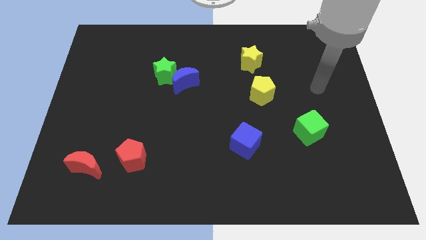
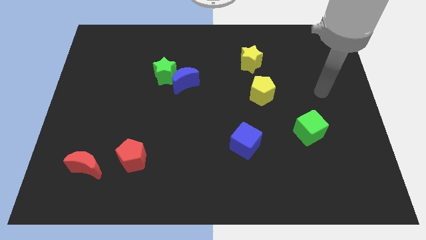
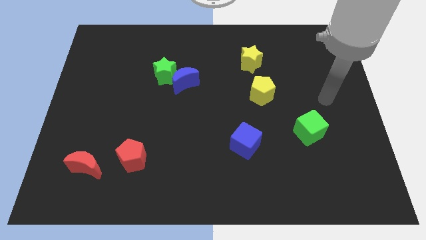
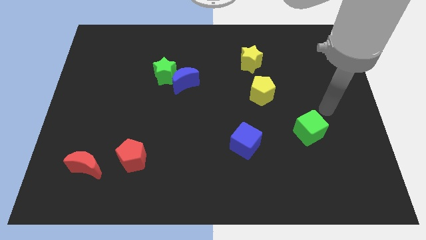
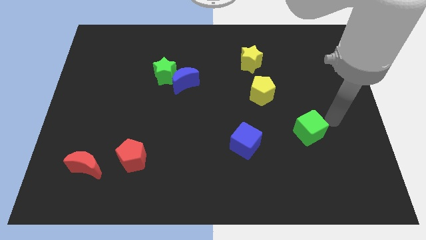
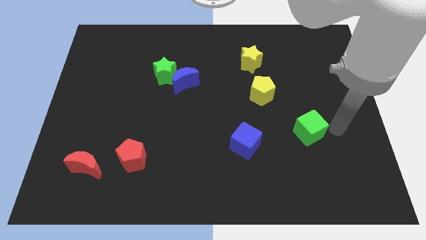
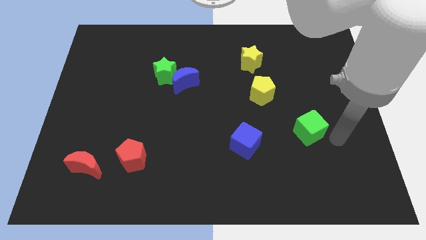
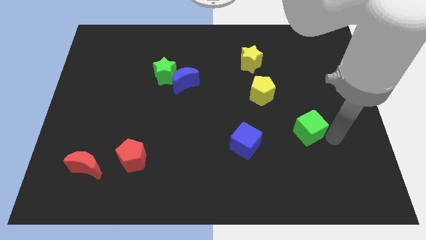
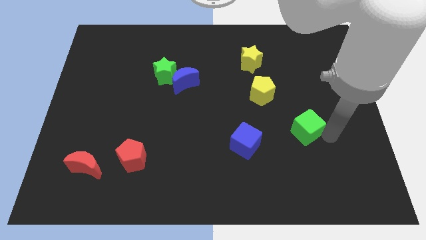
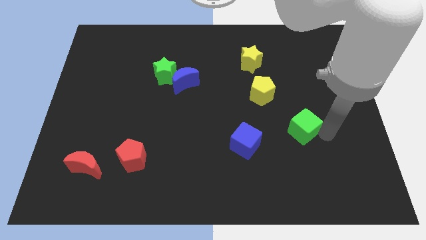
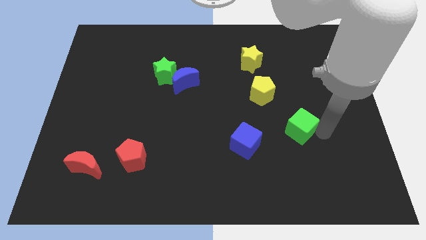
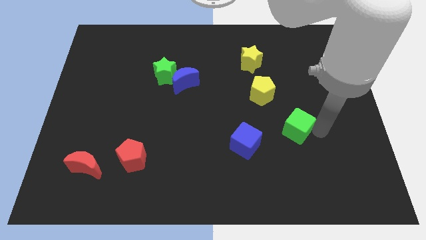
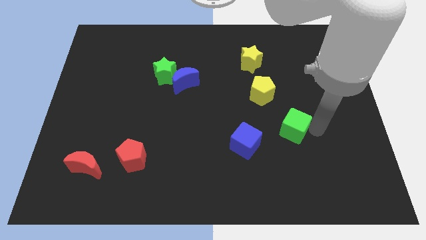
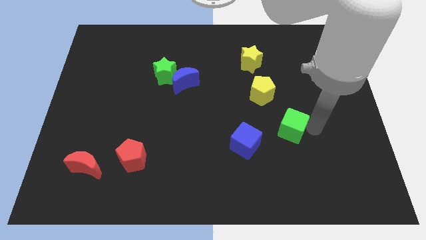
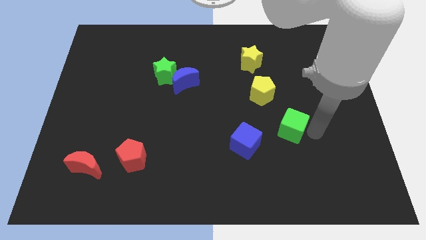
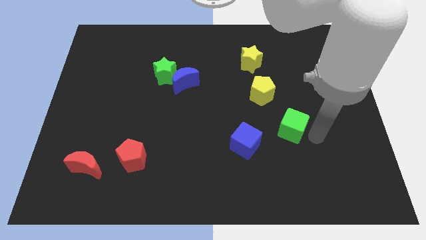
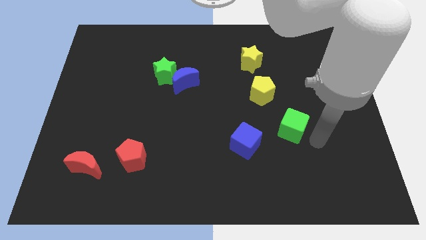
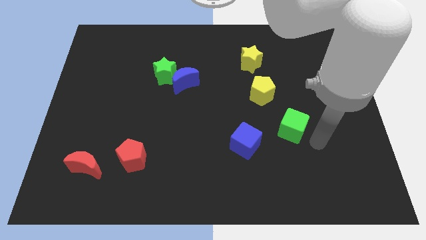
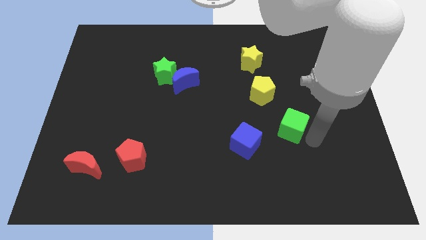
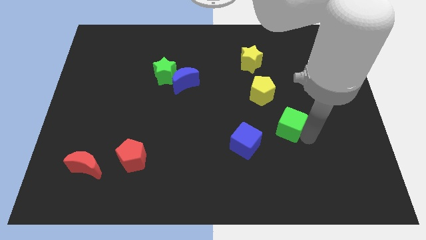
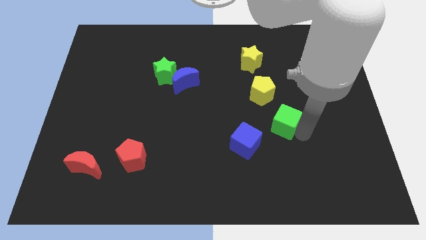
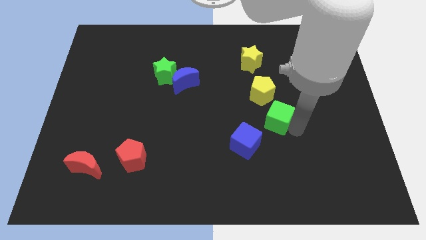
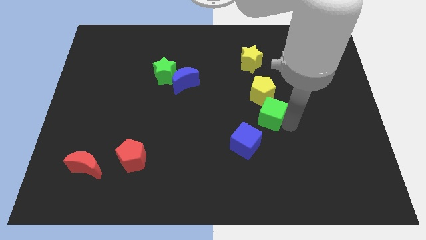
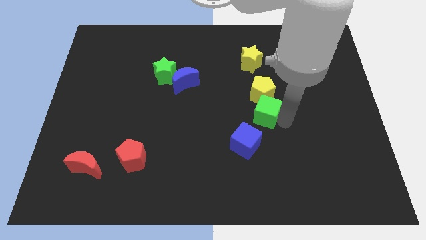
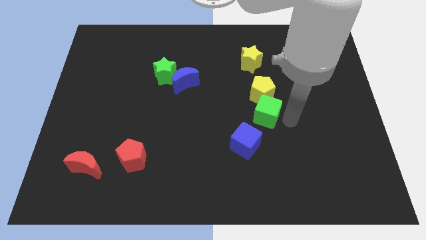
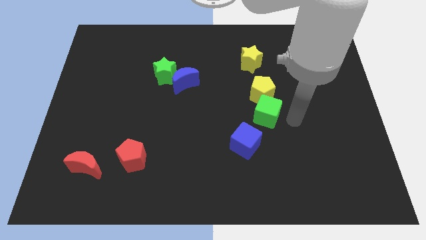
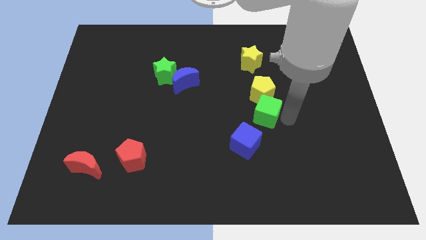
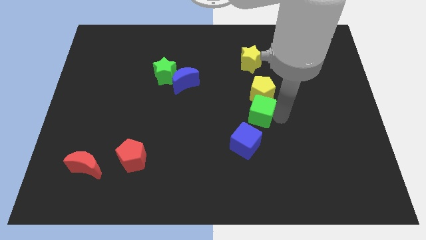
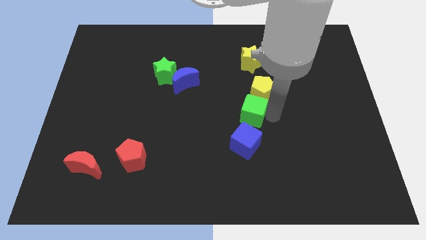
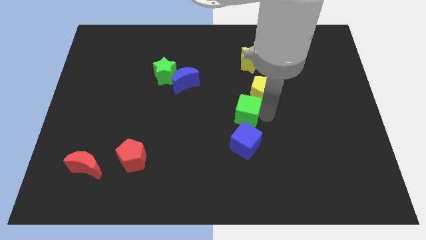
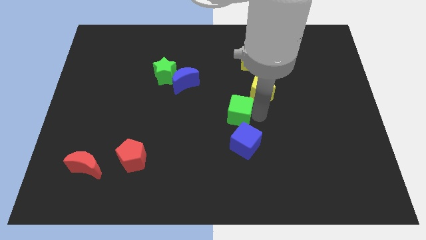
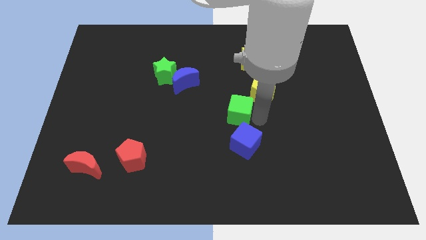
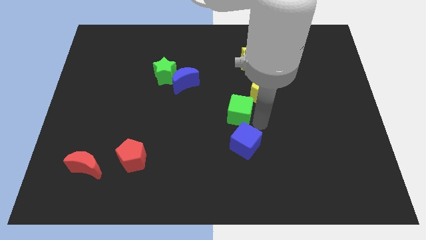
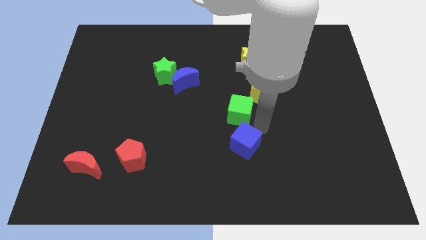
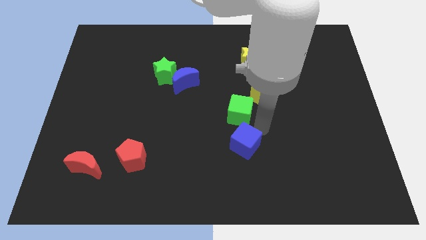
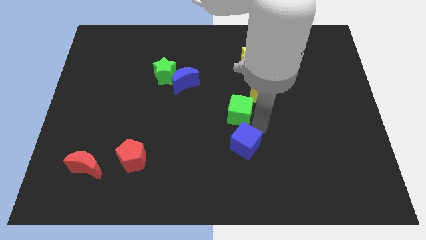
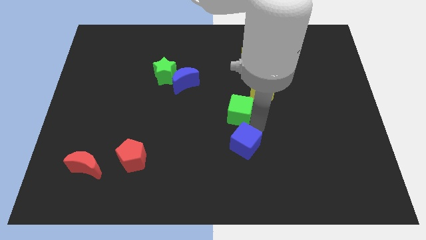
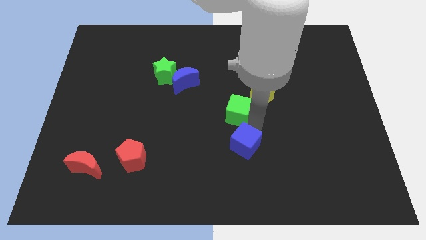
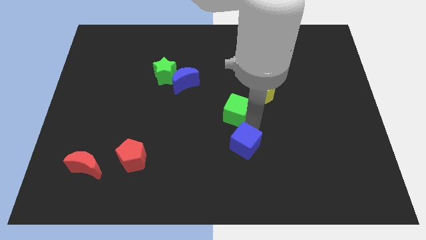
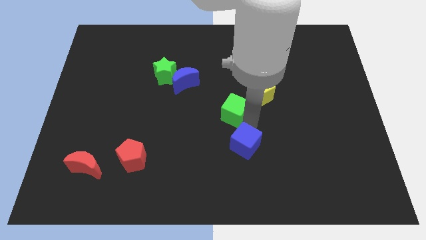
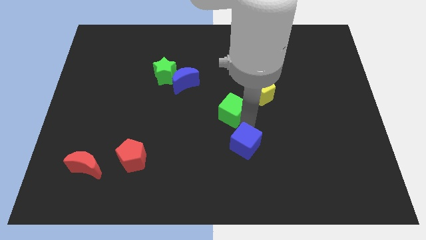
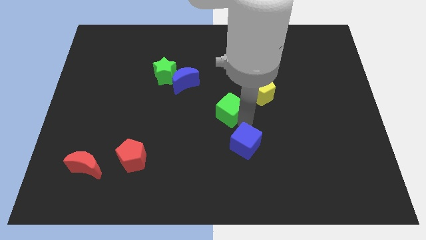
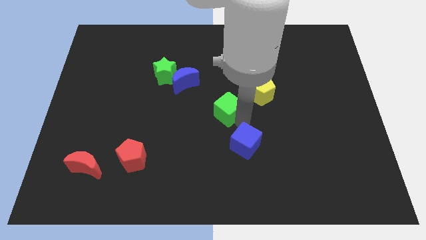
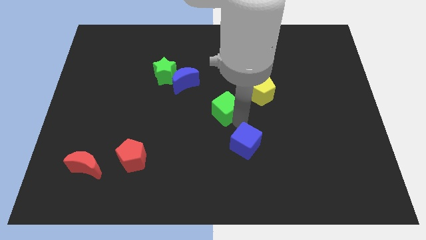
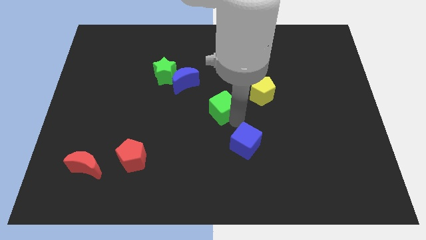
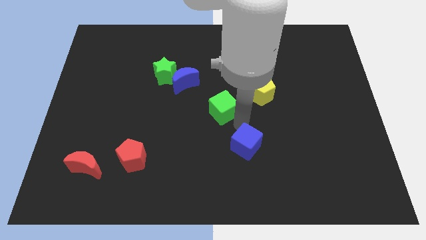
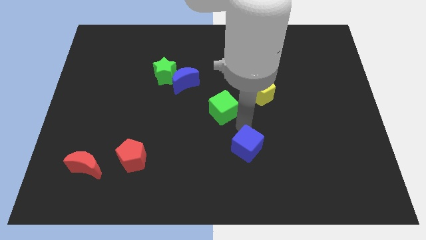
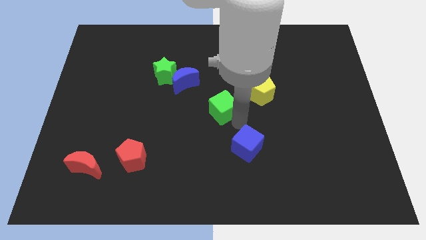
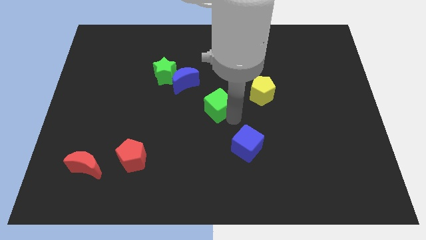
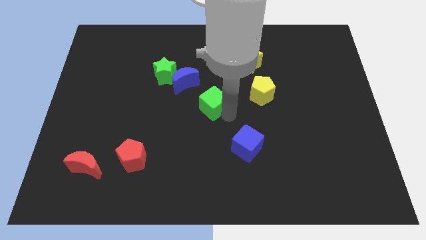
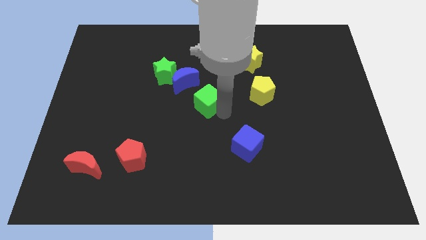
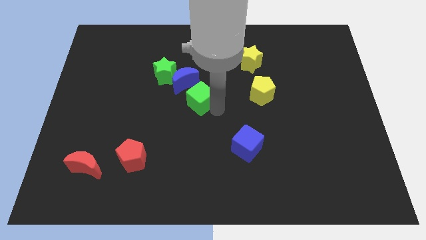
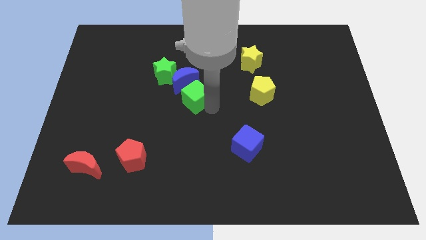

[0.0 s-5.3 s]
push the green cube next to the blue moon

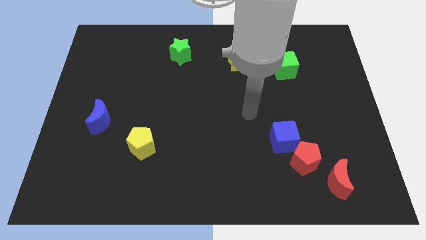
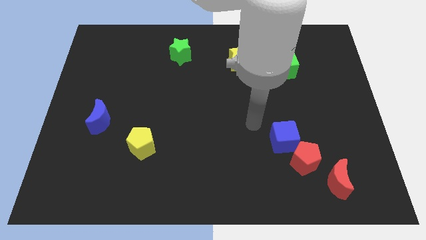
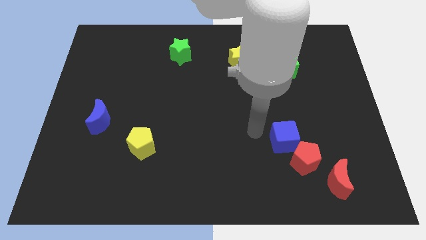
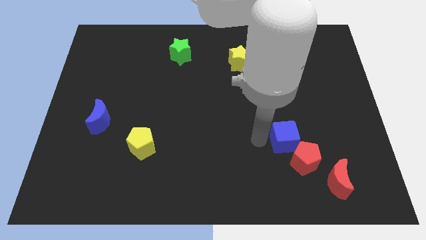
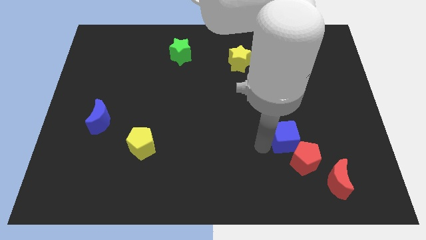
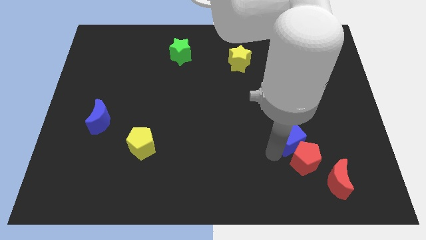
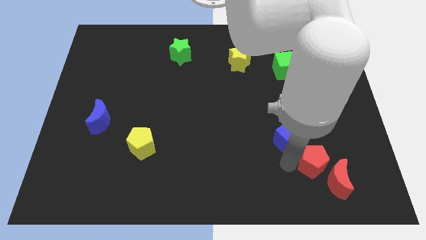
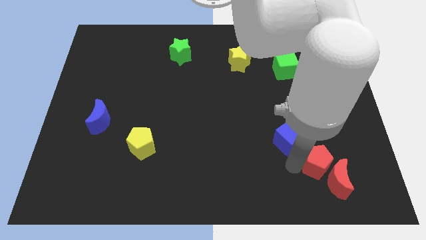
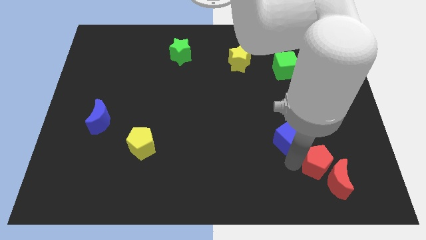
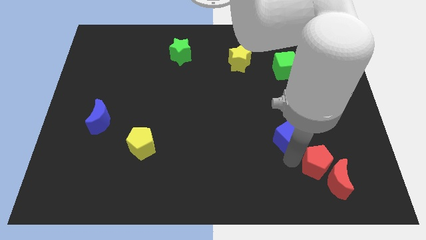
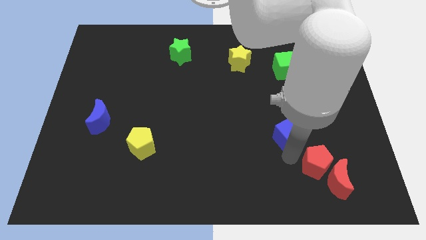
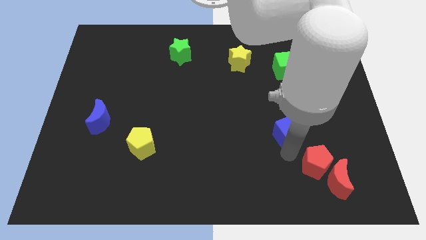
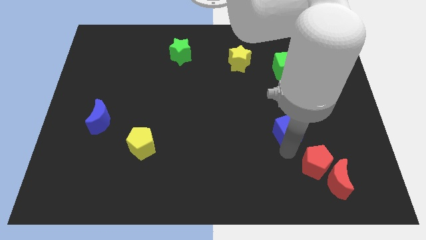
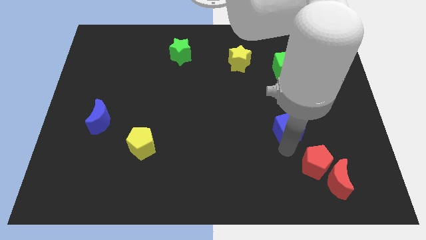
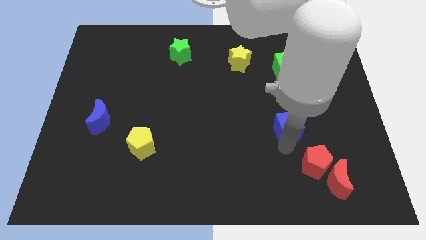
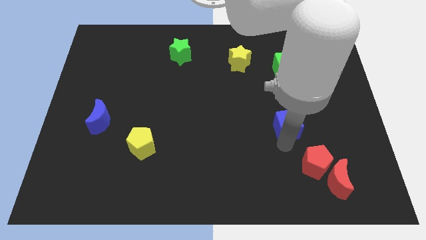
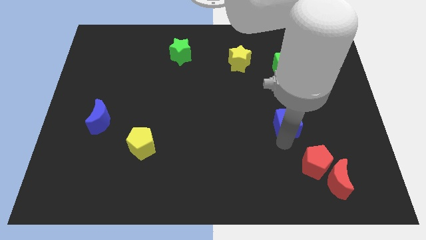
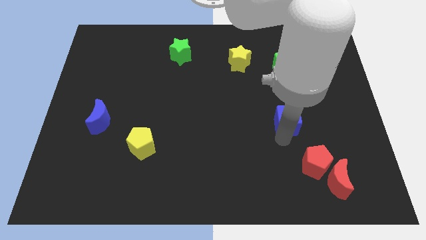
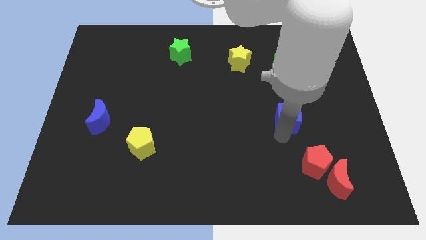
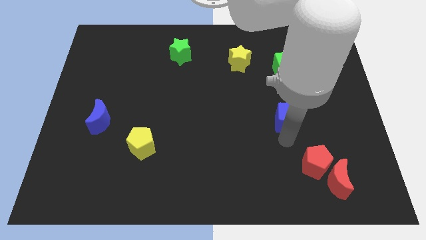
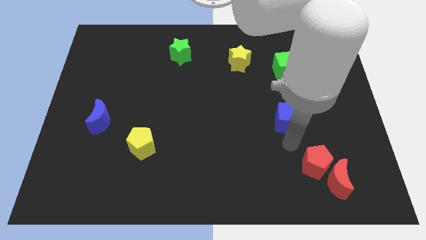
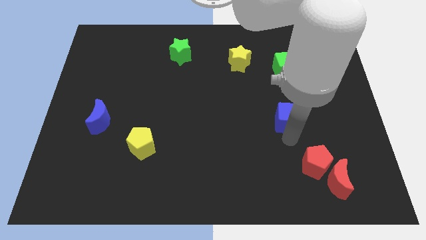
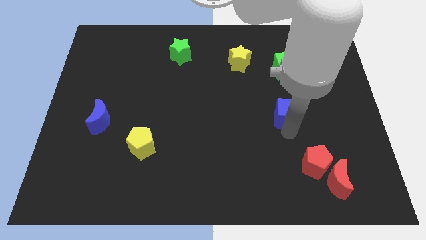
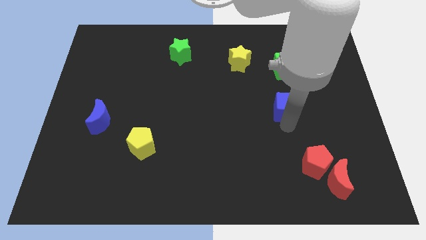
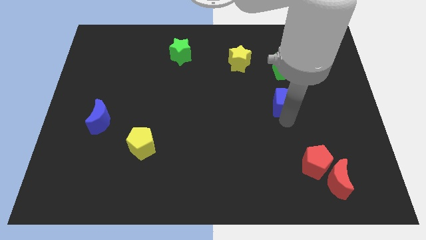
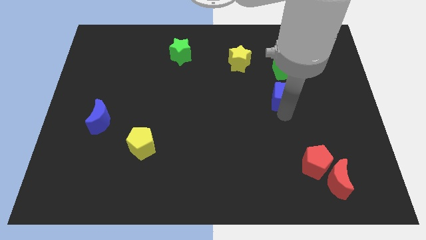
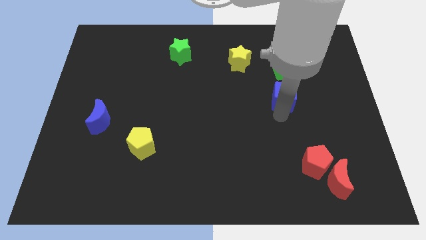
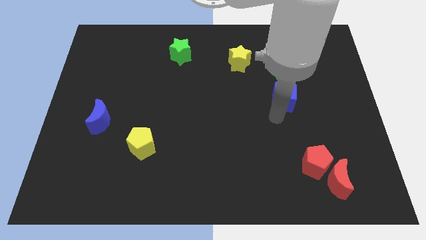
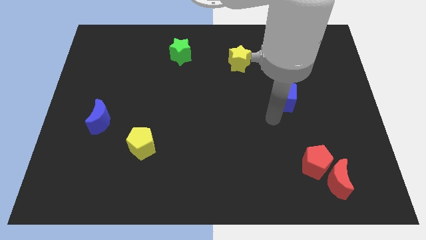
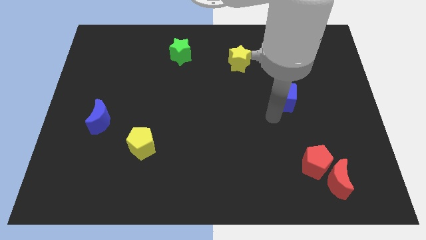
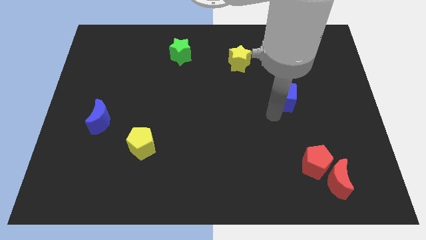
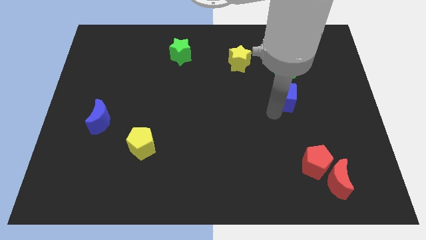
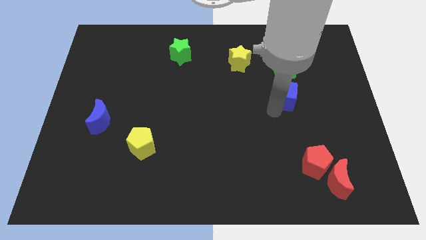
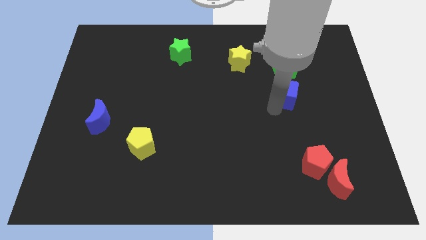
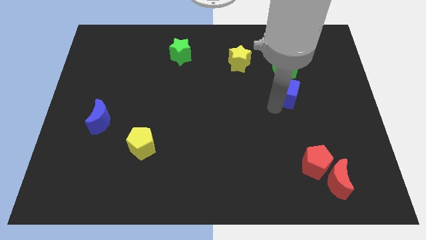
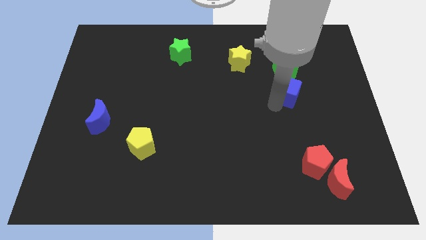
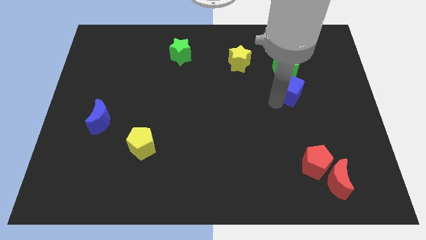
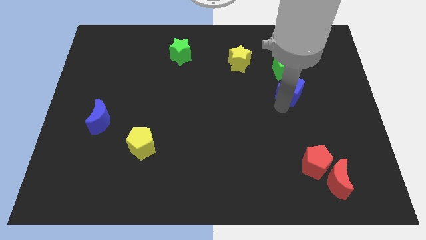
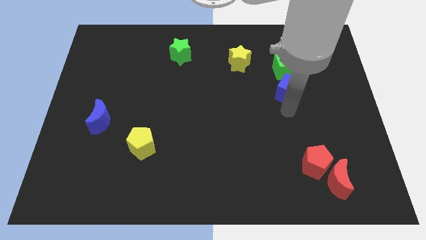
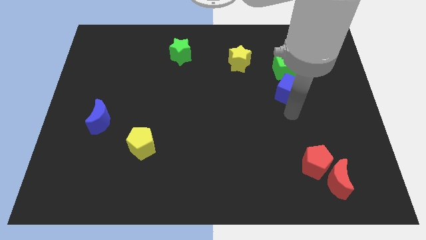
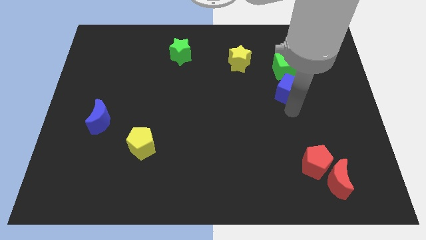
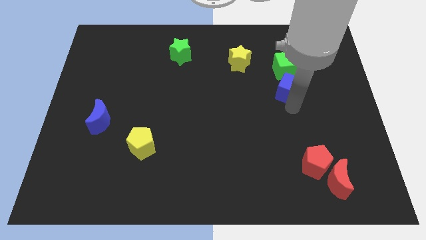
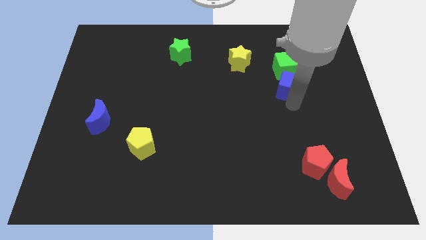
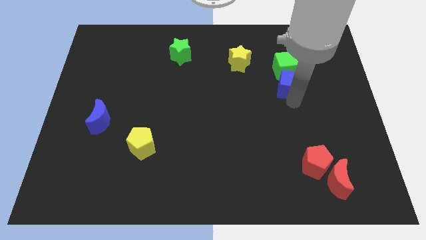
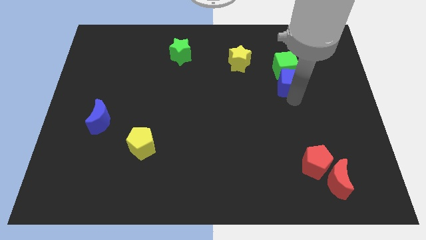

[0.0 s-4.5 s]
put the blue cube towards the green cube
